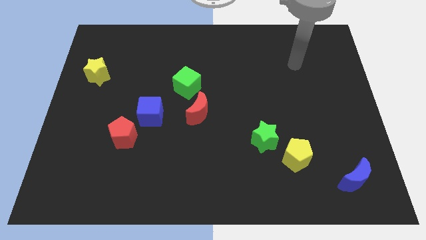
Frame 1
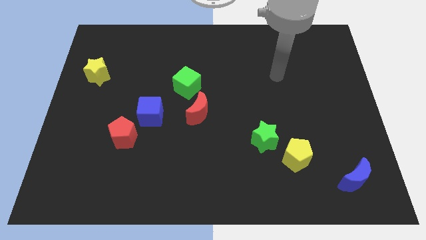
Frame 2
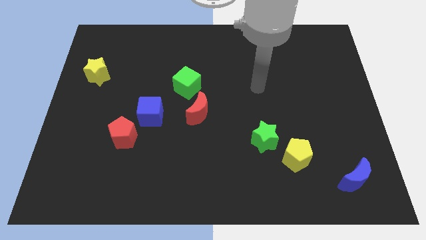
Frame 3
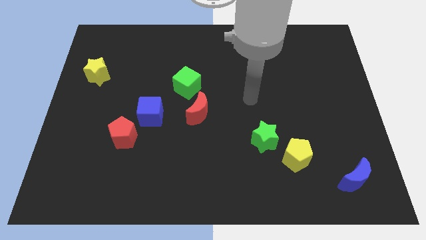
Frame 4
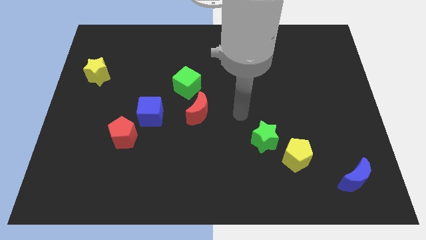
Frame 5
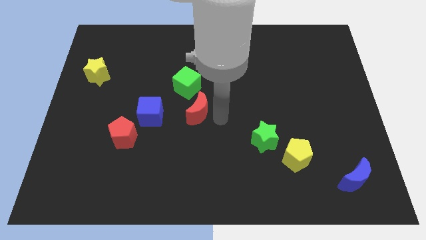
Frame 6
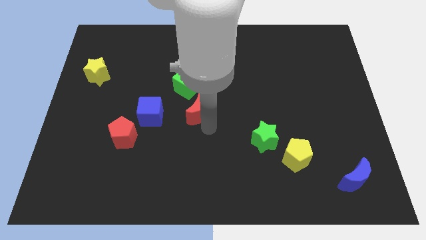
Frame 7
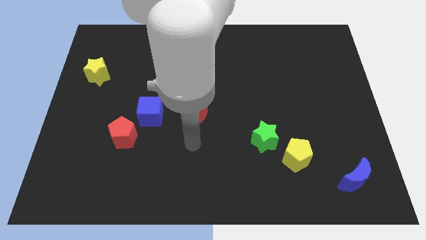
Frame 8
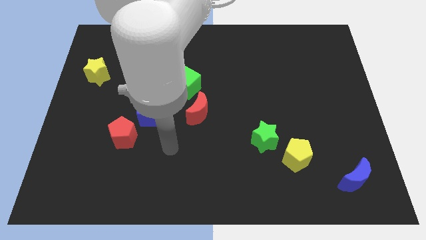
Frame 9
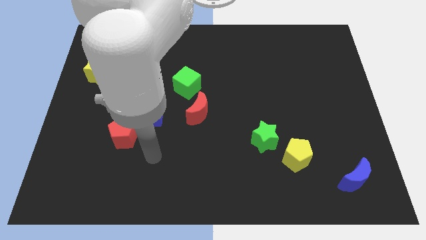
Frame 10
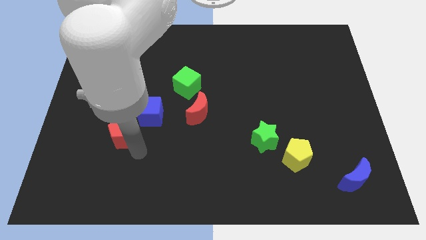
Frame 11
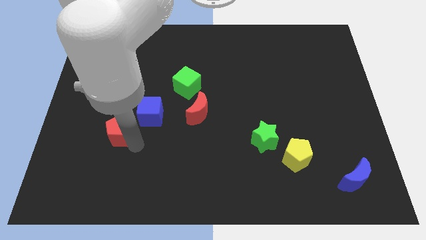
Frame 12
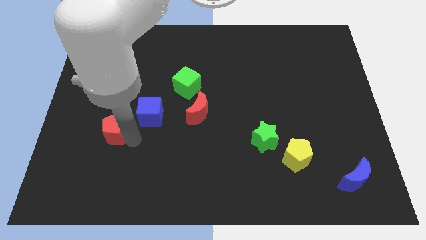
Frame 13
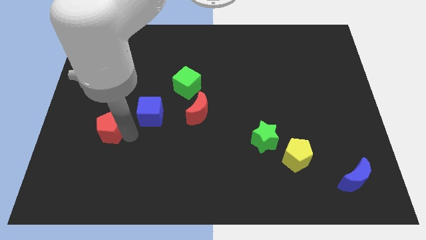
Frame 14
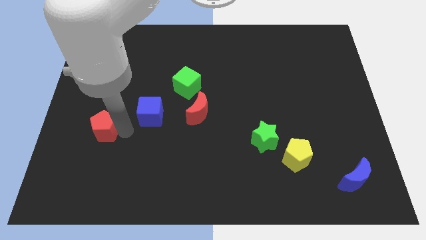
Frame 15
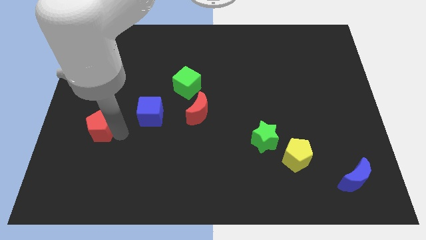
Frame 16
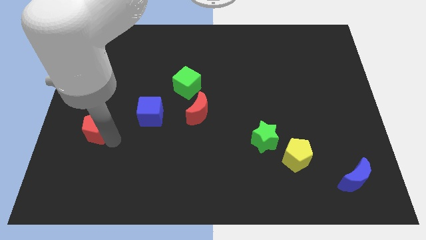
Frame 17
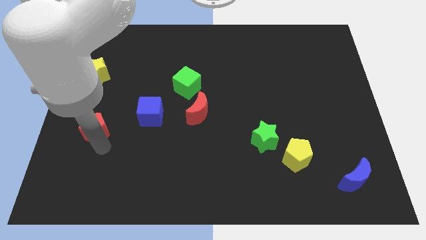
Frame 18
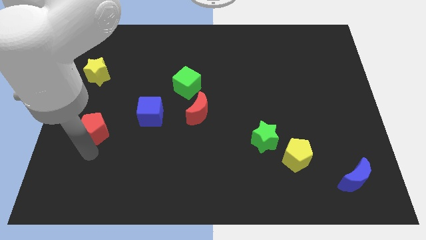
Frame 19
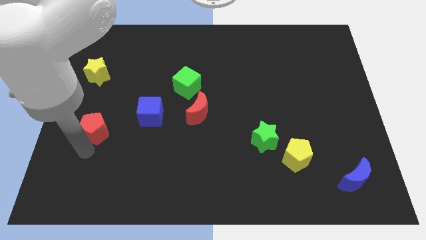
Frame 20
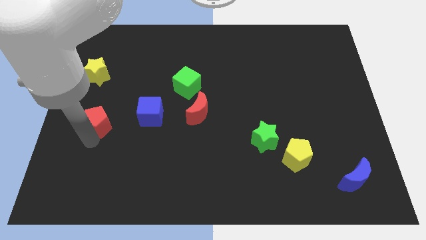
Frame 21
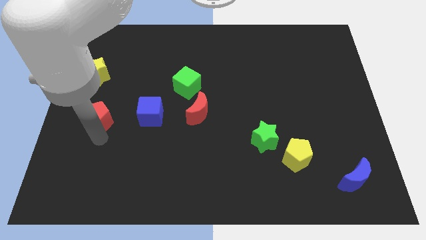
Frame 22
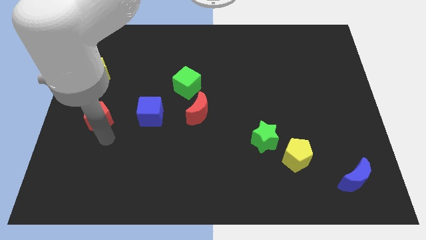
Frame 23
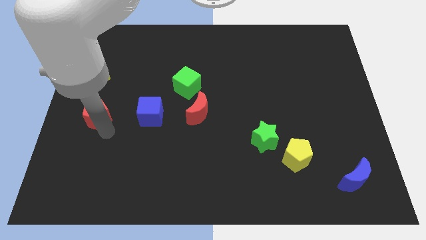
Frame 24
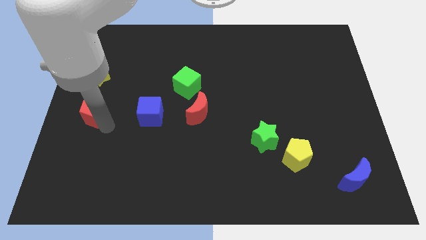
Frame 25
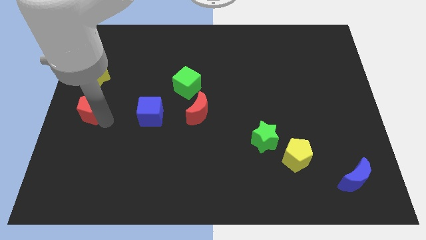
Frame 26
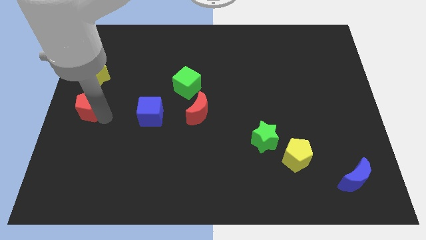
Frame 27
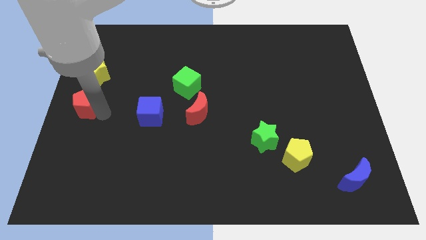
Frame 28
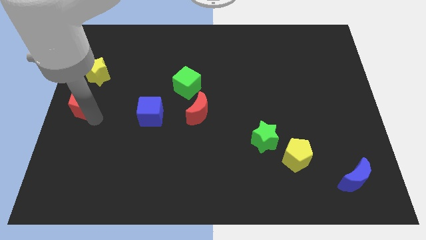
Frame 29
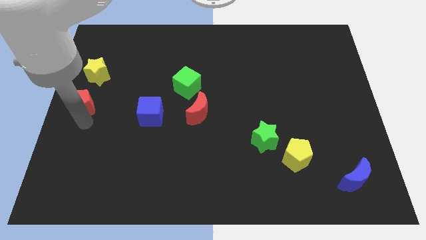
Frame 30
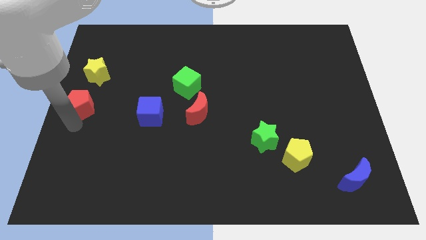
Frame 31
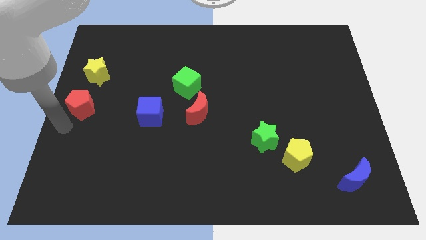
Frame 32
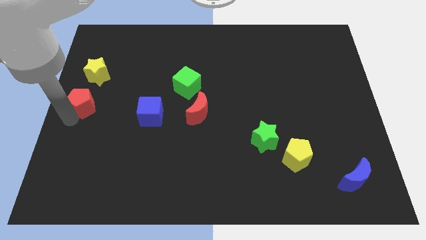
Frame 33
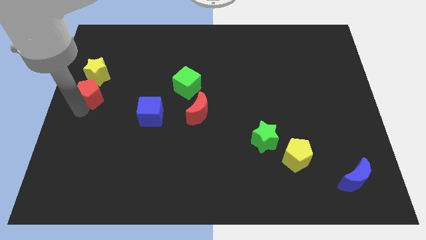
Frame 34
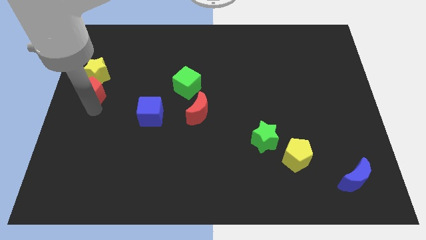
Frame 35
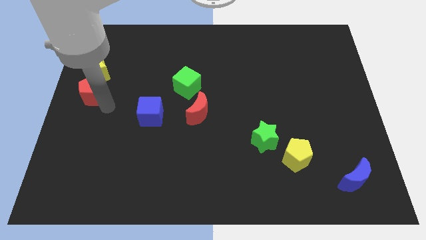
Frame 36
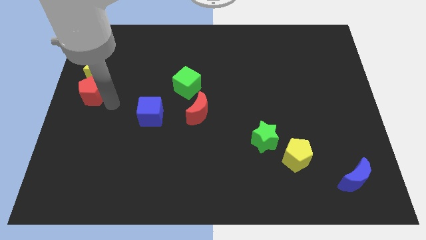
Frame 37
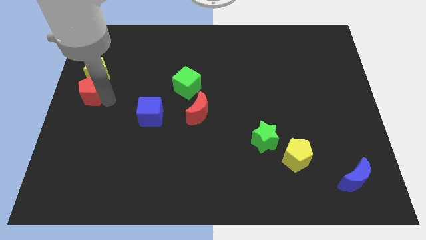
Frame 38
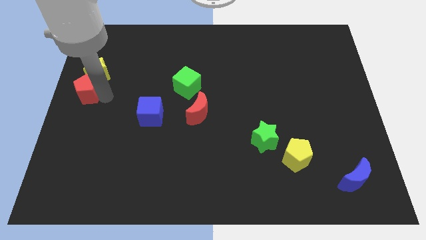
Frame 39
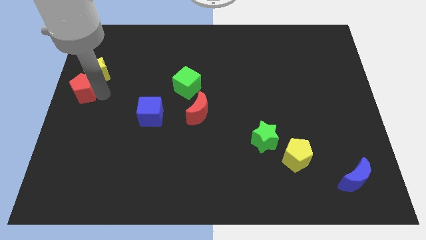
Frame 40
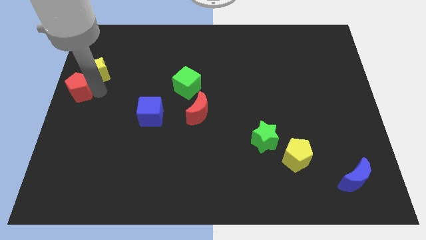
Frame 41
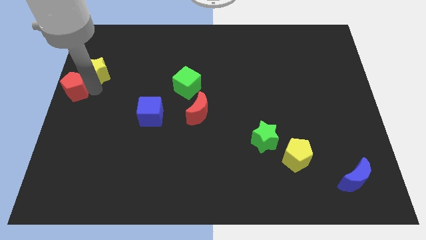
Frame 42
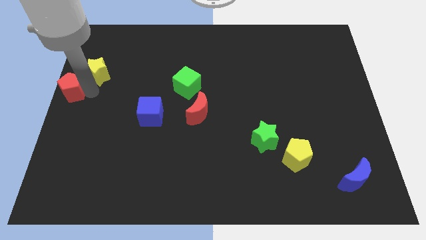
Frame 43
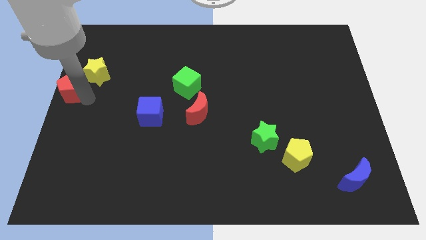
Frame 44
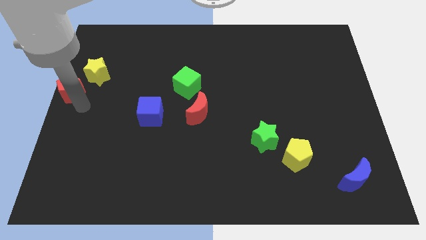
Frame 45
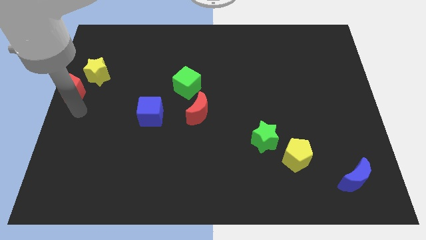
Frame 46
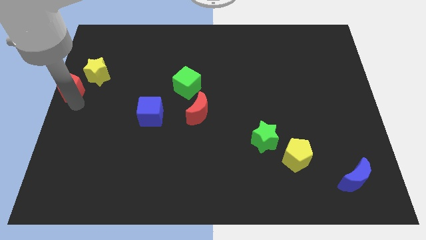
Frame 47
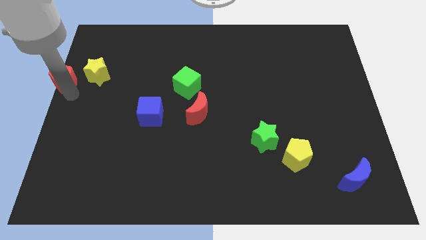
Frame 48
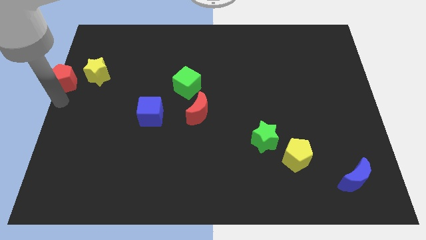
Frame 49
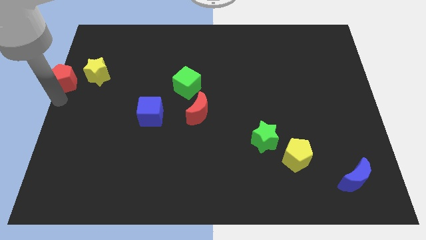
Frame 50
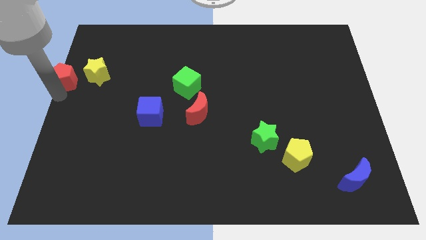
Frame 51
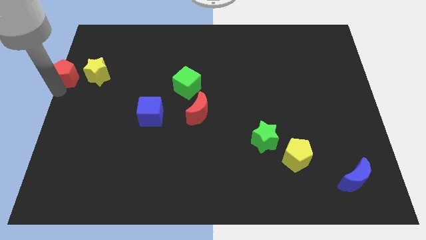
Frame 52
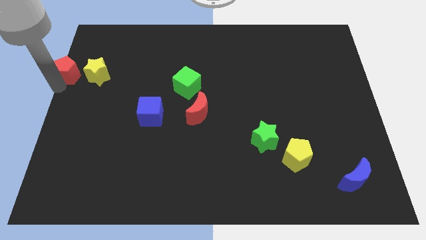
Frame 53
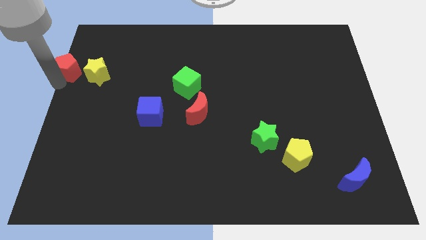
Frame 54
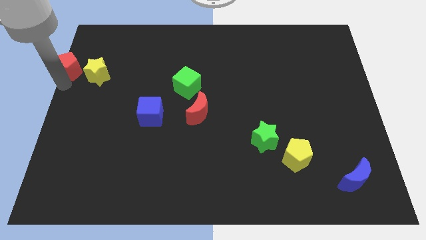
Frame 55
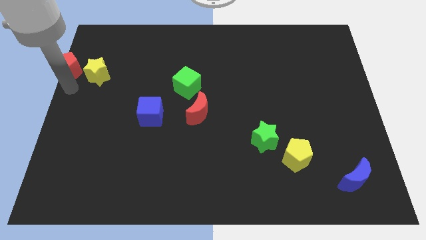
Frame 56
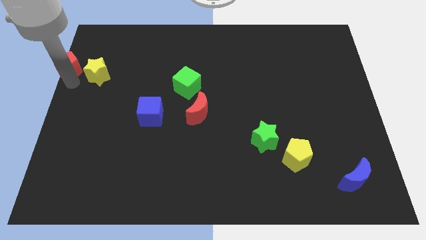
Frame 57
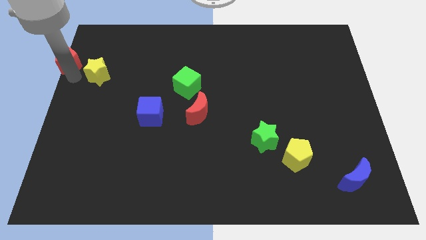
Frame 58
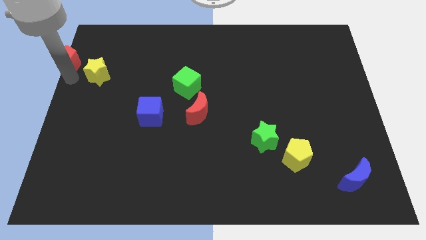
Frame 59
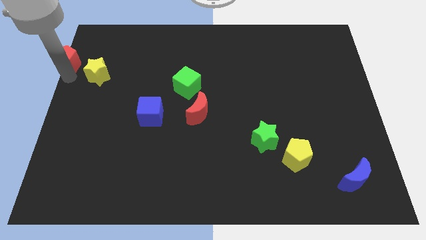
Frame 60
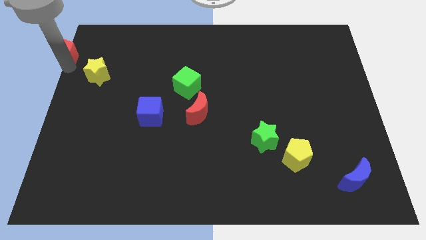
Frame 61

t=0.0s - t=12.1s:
move the red pentagon to the top left
